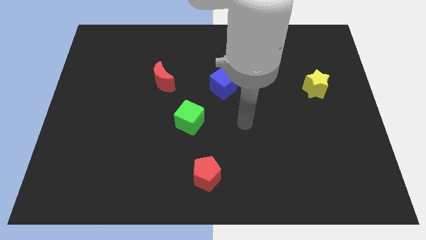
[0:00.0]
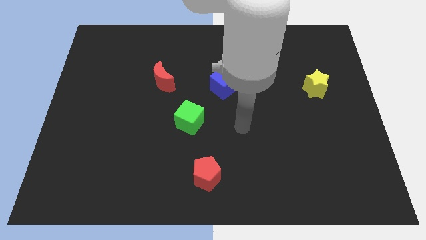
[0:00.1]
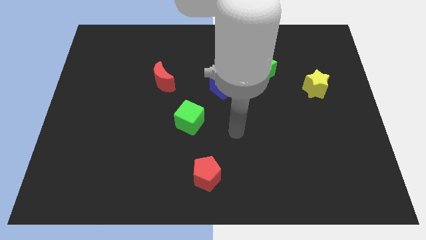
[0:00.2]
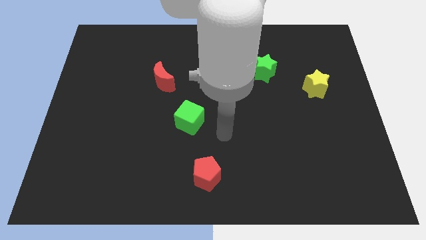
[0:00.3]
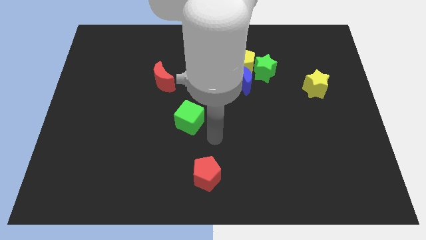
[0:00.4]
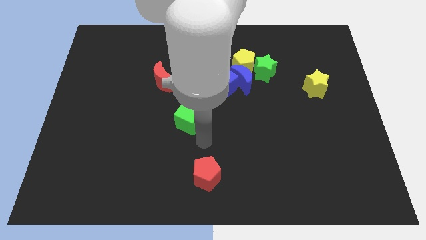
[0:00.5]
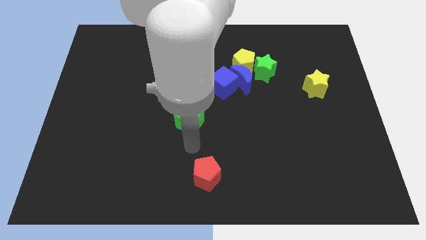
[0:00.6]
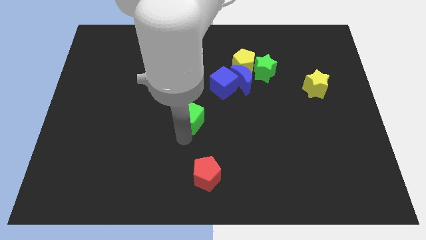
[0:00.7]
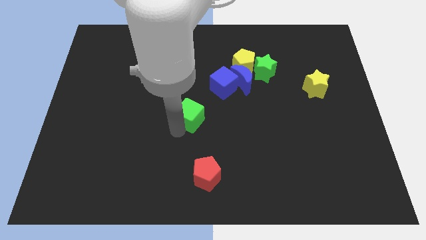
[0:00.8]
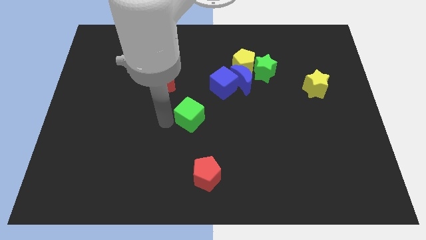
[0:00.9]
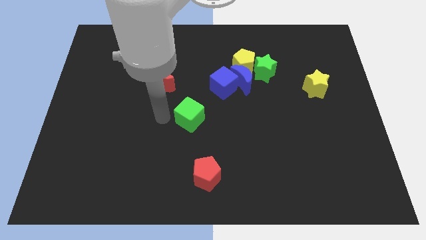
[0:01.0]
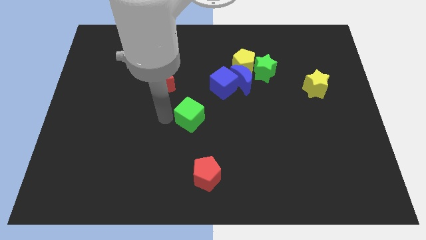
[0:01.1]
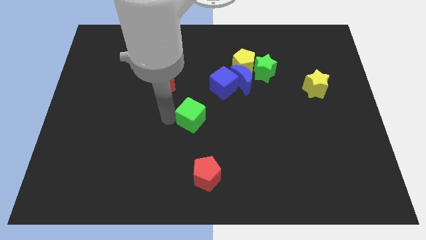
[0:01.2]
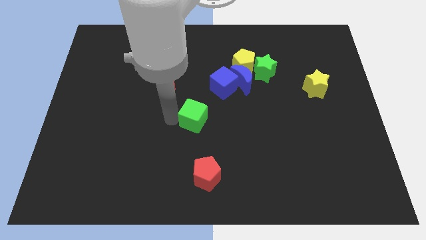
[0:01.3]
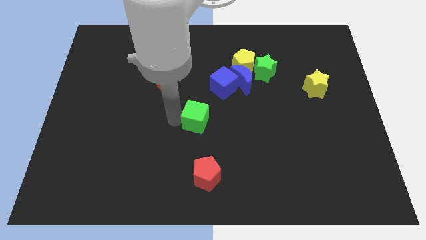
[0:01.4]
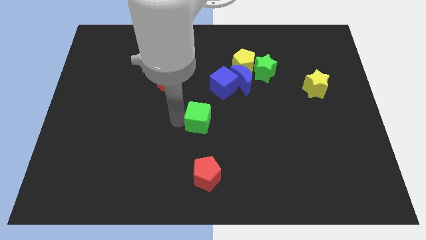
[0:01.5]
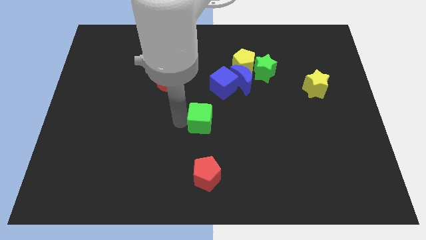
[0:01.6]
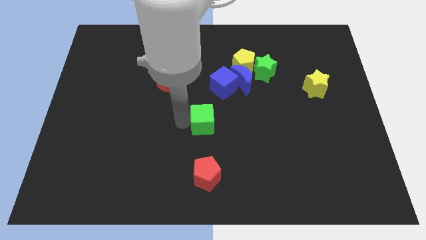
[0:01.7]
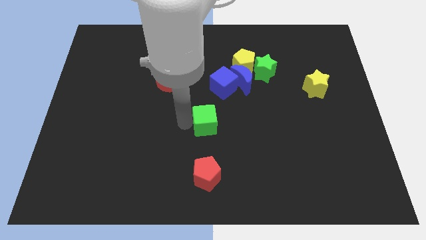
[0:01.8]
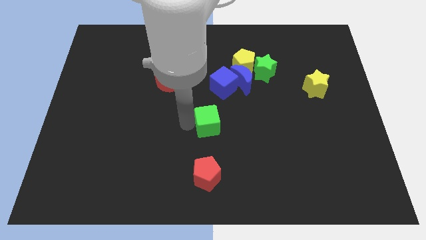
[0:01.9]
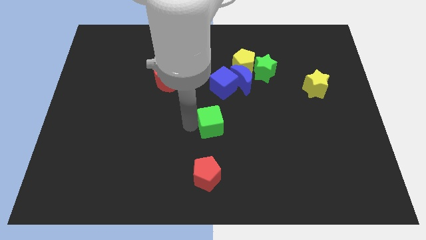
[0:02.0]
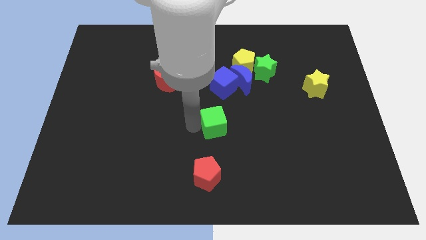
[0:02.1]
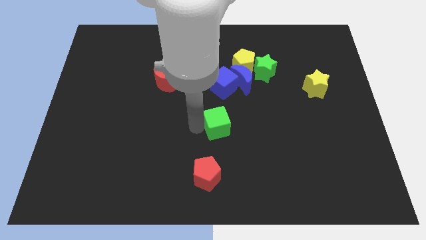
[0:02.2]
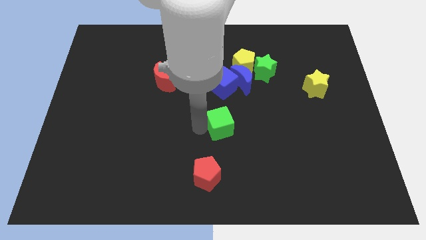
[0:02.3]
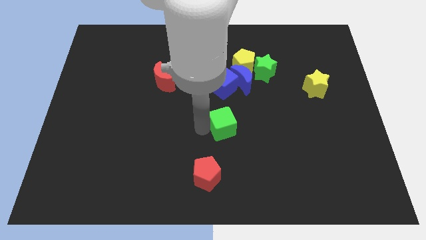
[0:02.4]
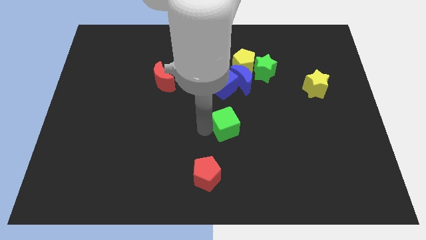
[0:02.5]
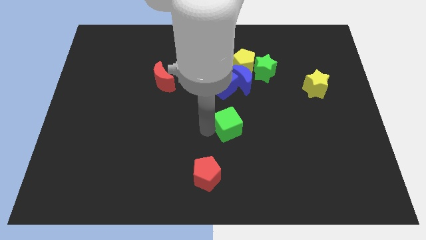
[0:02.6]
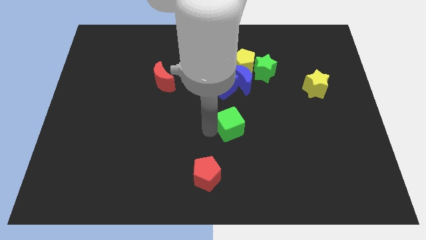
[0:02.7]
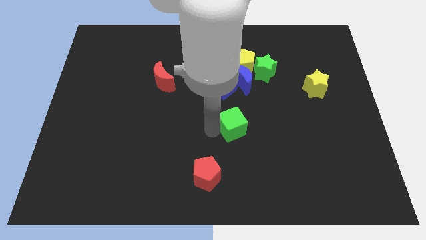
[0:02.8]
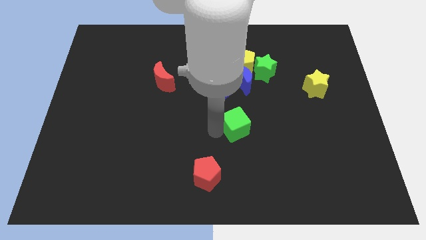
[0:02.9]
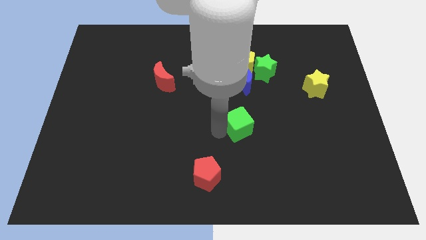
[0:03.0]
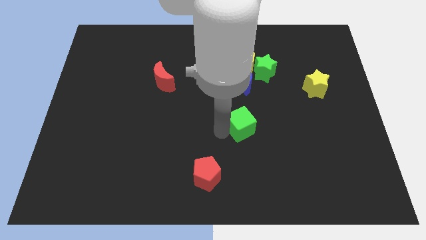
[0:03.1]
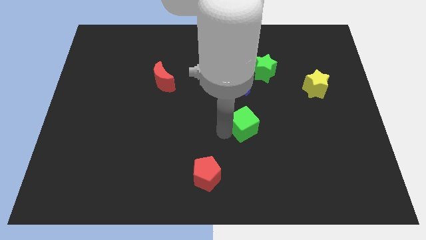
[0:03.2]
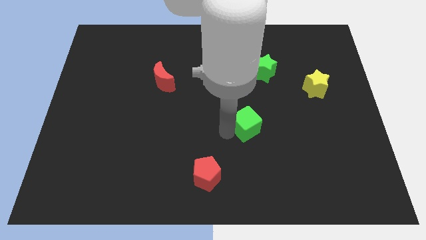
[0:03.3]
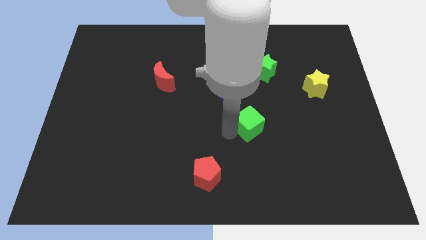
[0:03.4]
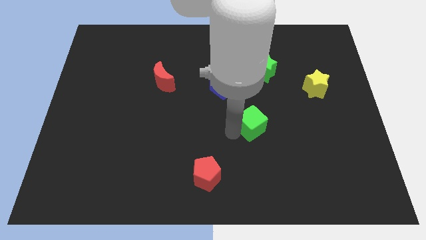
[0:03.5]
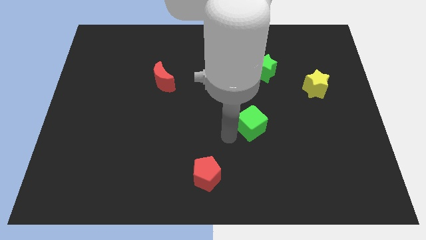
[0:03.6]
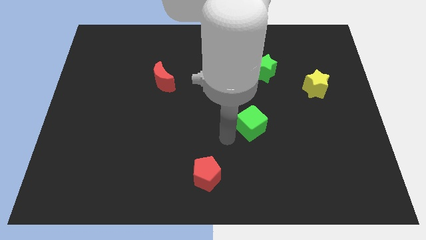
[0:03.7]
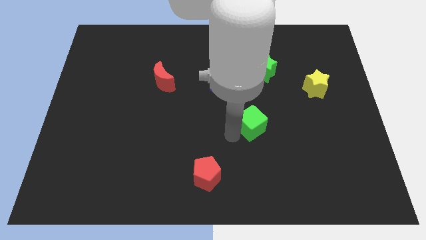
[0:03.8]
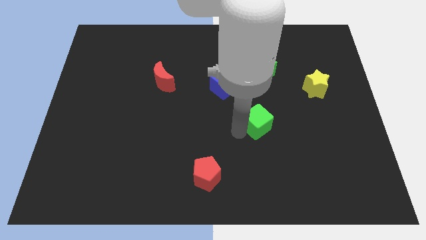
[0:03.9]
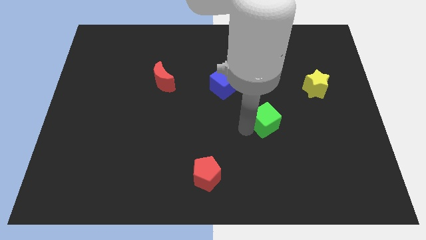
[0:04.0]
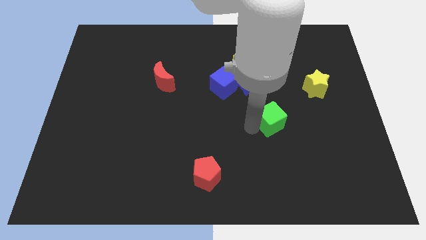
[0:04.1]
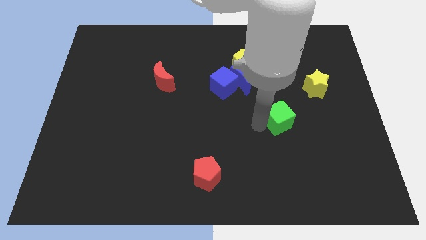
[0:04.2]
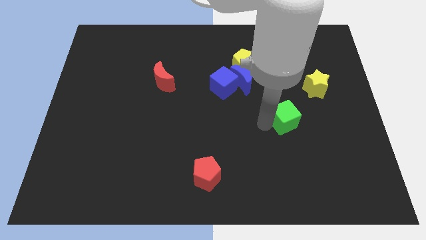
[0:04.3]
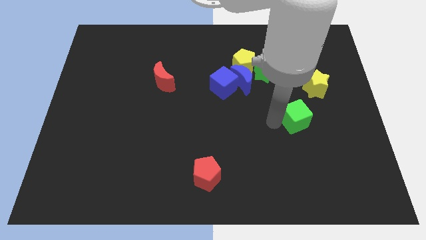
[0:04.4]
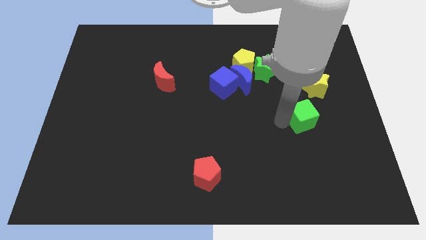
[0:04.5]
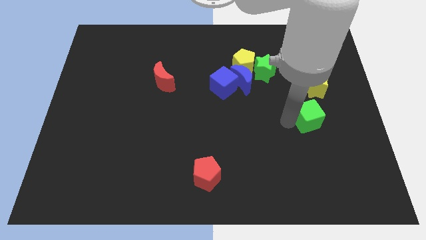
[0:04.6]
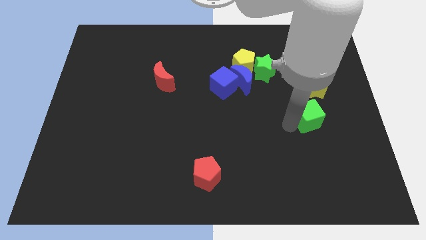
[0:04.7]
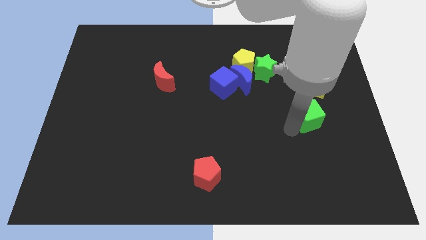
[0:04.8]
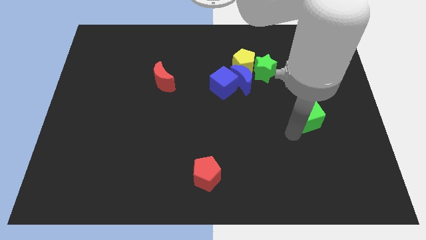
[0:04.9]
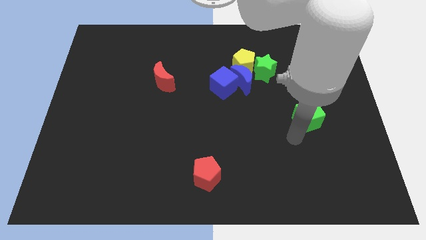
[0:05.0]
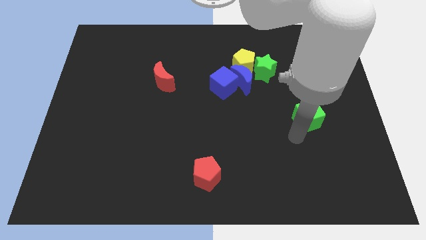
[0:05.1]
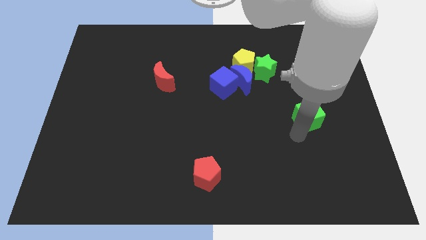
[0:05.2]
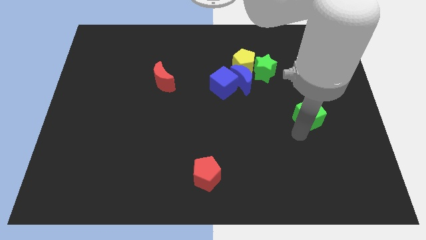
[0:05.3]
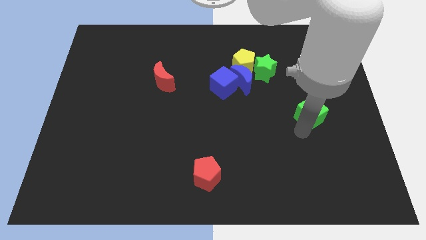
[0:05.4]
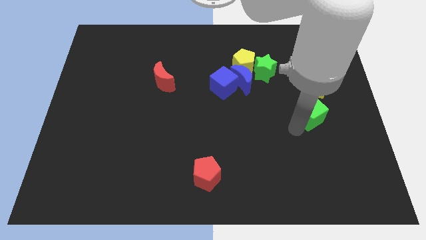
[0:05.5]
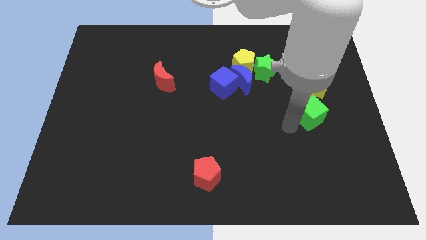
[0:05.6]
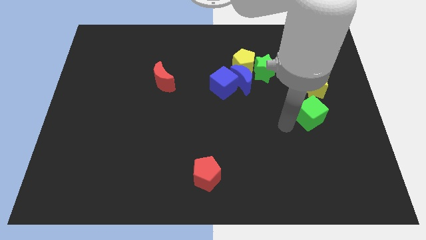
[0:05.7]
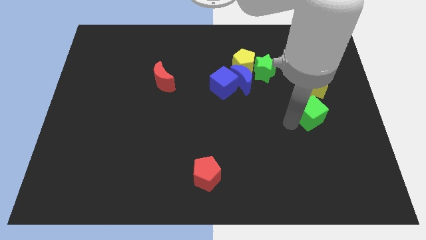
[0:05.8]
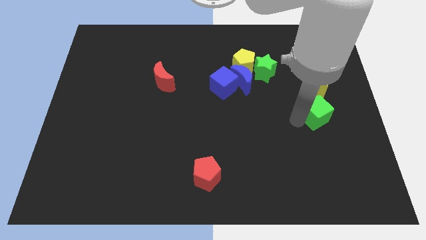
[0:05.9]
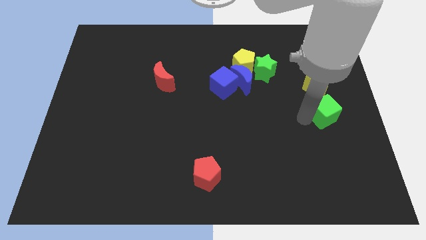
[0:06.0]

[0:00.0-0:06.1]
move the green cube to the center right

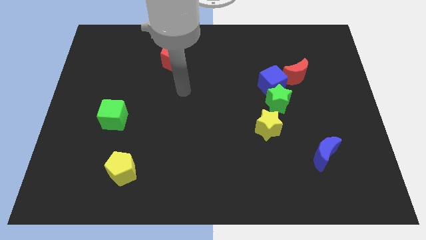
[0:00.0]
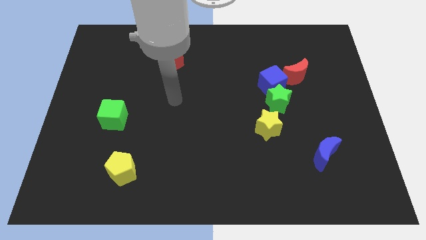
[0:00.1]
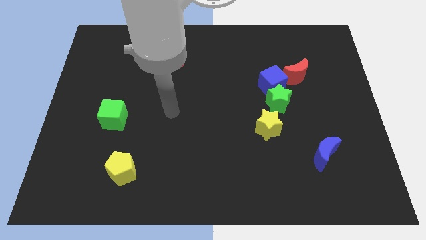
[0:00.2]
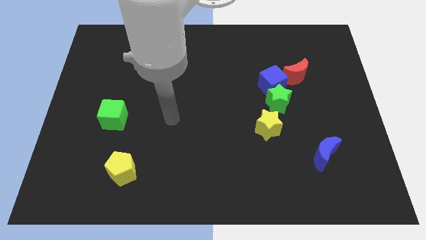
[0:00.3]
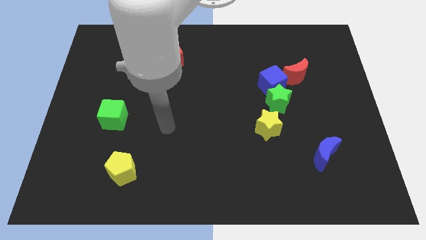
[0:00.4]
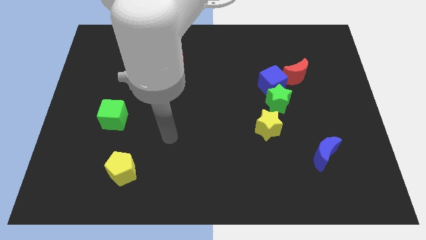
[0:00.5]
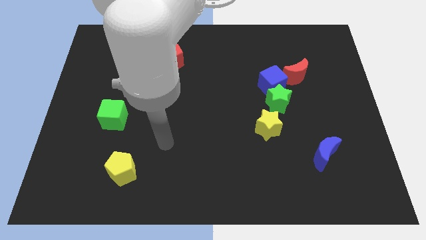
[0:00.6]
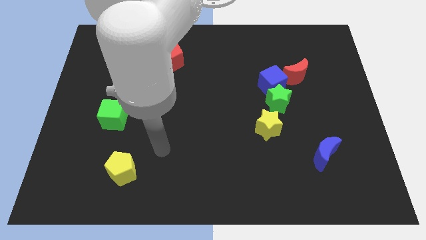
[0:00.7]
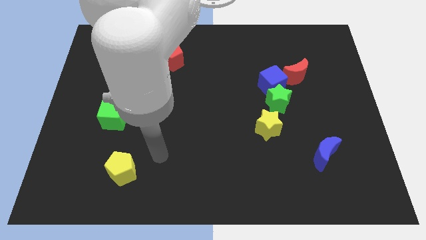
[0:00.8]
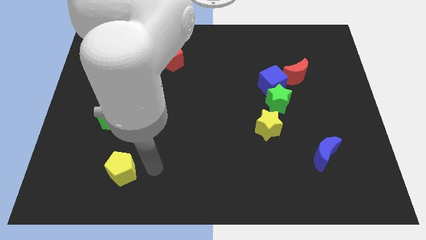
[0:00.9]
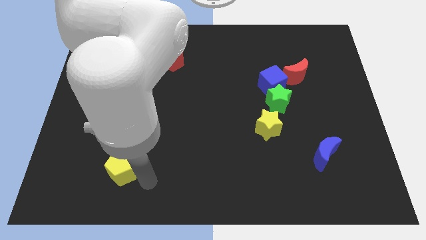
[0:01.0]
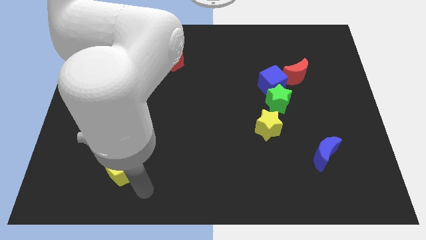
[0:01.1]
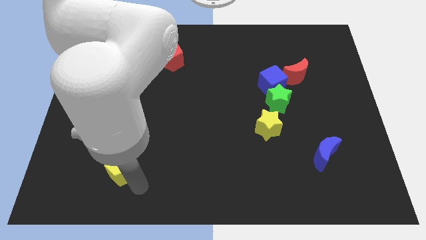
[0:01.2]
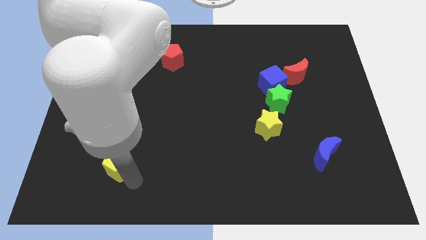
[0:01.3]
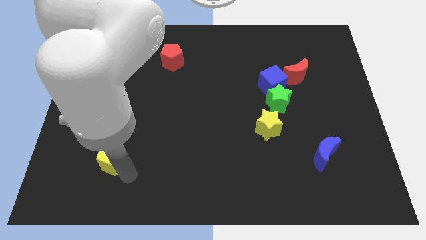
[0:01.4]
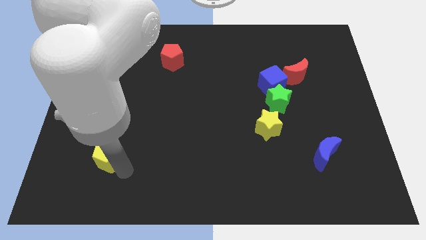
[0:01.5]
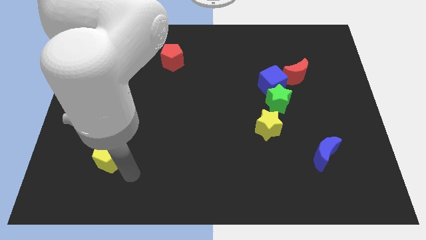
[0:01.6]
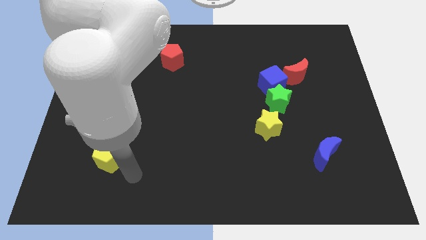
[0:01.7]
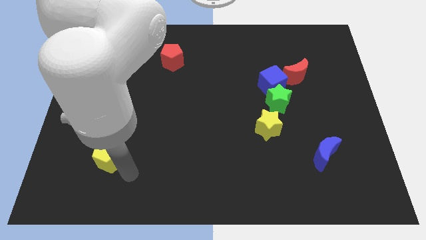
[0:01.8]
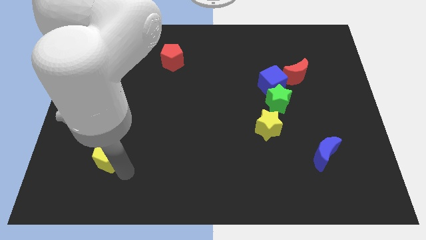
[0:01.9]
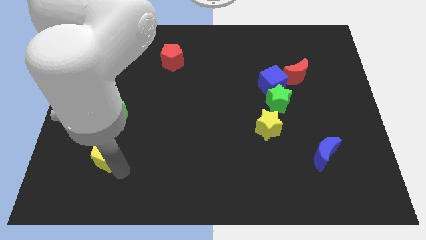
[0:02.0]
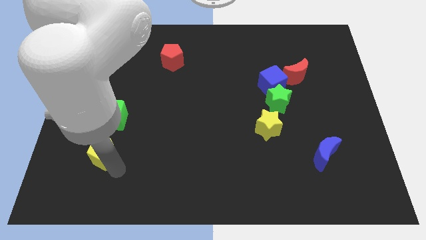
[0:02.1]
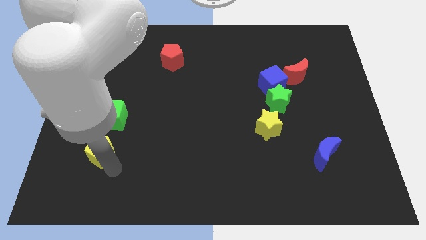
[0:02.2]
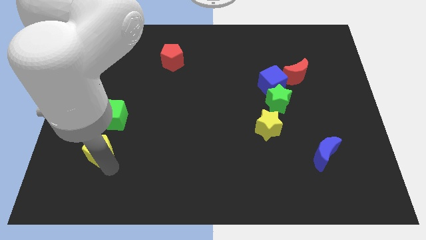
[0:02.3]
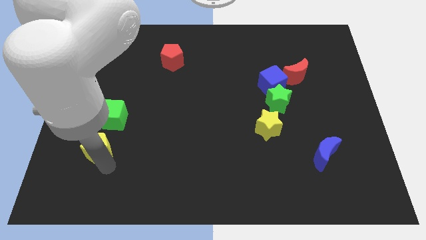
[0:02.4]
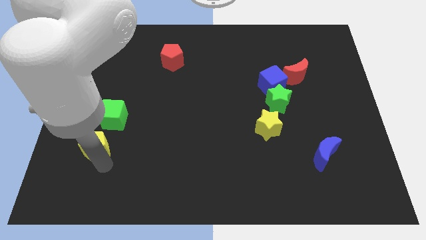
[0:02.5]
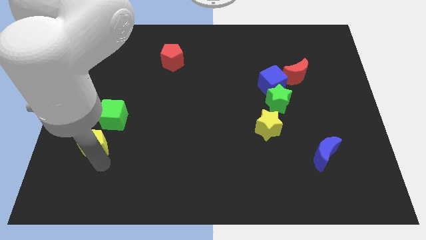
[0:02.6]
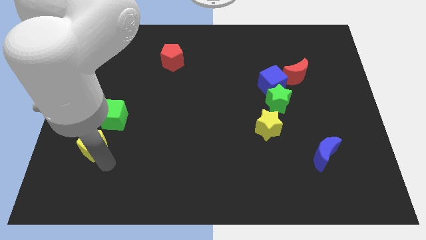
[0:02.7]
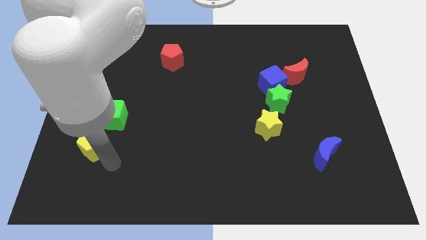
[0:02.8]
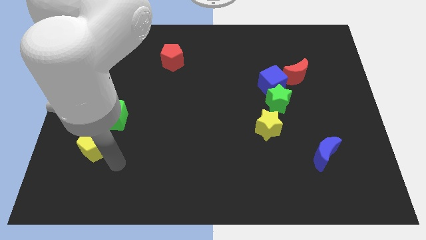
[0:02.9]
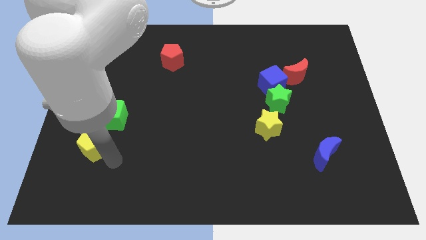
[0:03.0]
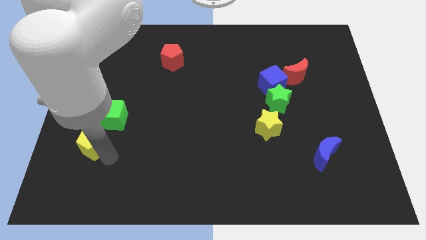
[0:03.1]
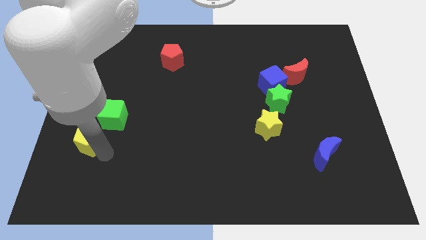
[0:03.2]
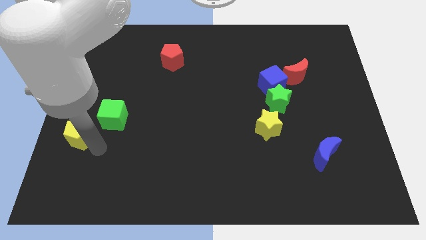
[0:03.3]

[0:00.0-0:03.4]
slide the yellow pentagon to the center left
